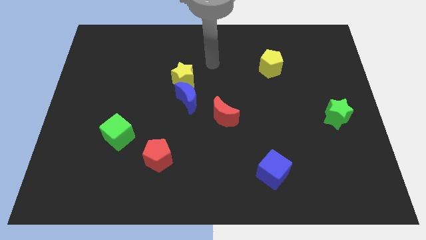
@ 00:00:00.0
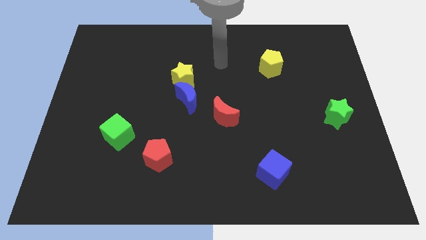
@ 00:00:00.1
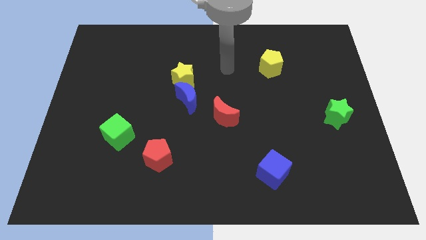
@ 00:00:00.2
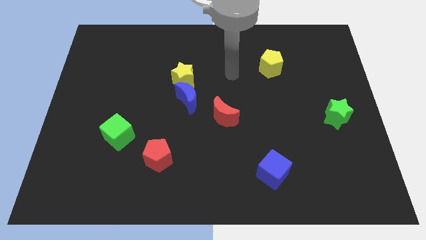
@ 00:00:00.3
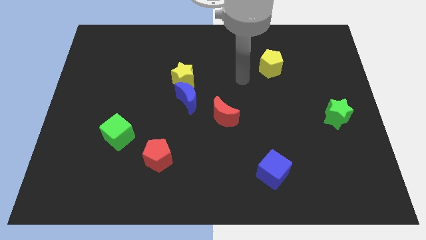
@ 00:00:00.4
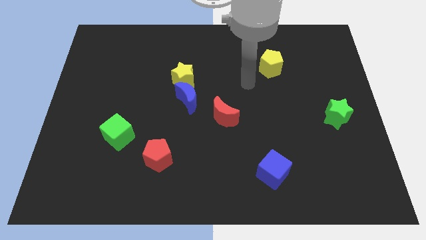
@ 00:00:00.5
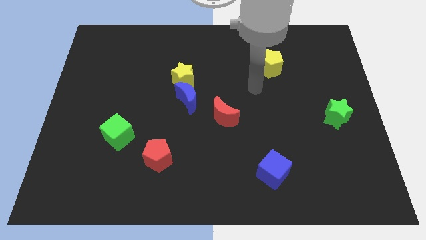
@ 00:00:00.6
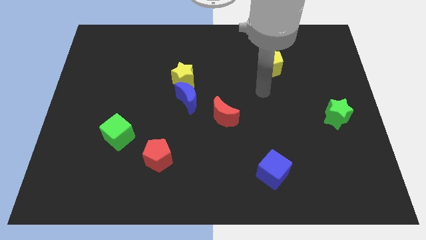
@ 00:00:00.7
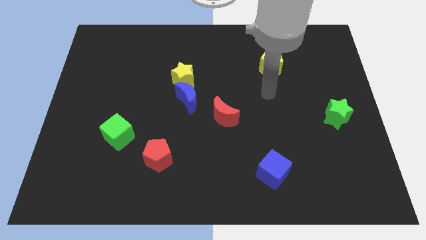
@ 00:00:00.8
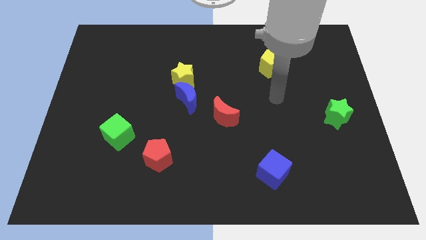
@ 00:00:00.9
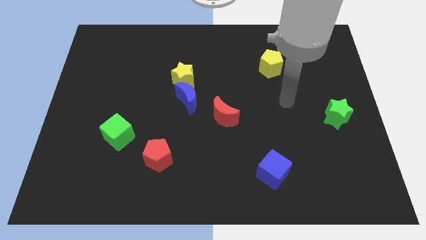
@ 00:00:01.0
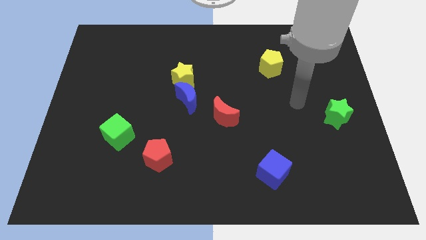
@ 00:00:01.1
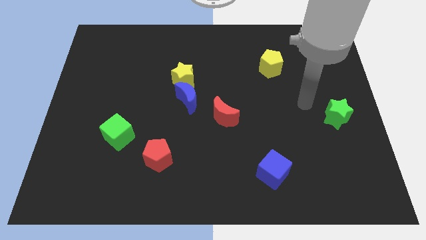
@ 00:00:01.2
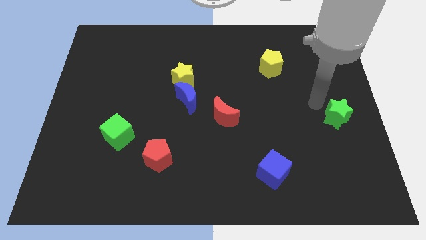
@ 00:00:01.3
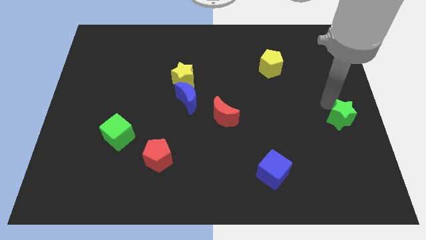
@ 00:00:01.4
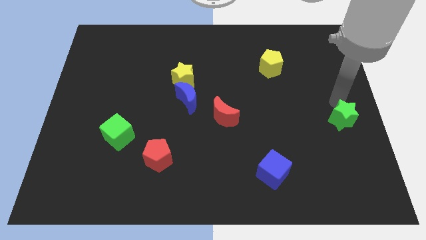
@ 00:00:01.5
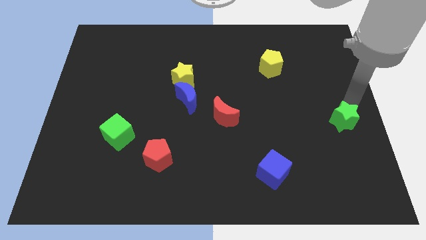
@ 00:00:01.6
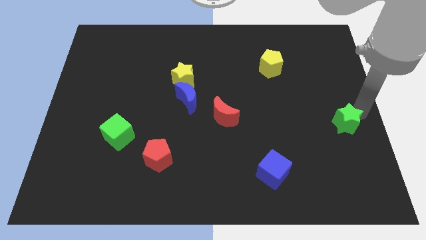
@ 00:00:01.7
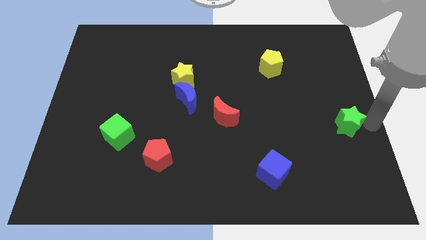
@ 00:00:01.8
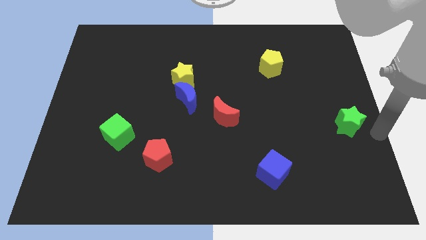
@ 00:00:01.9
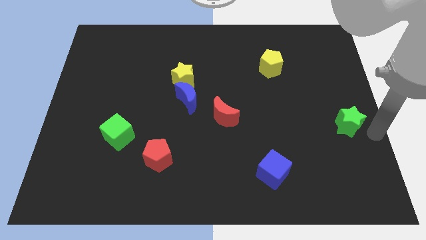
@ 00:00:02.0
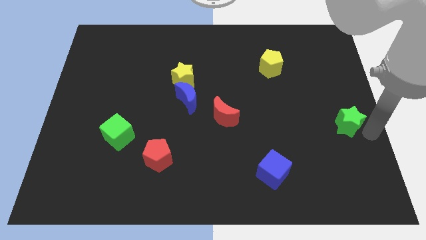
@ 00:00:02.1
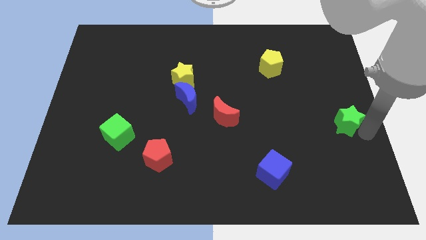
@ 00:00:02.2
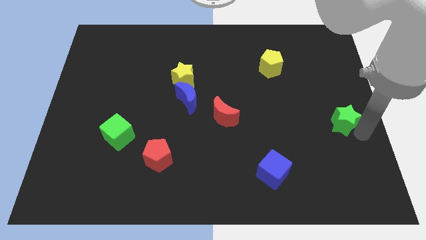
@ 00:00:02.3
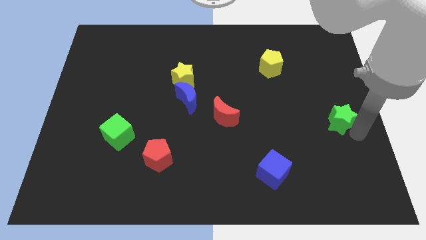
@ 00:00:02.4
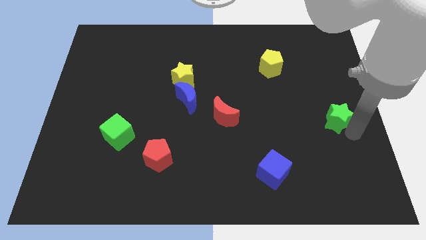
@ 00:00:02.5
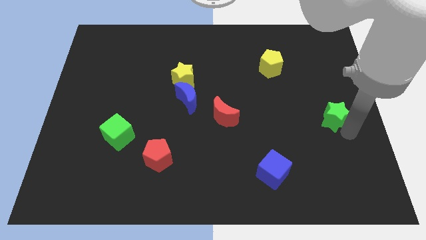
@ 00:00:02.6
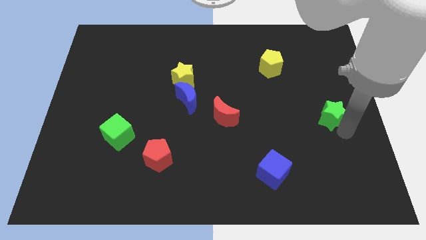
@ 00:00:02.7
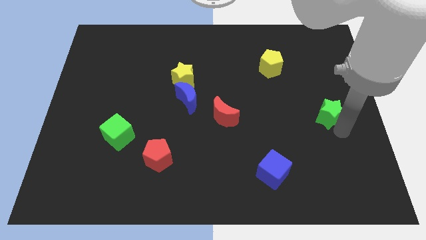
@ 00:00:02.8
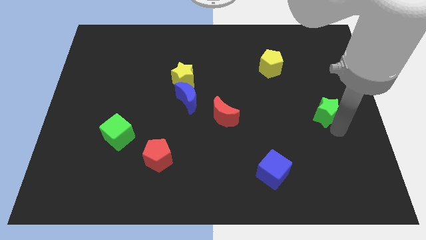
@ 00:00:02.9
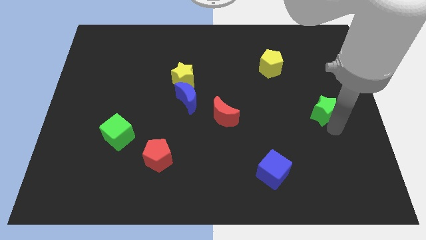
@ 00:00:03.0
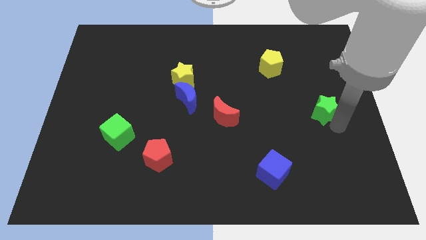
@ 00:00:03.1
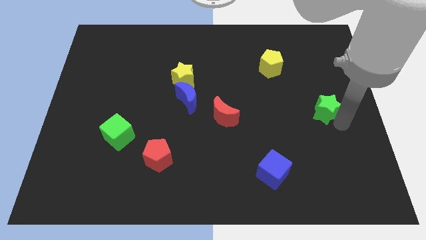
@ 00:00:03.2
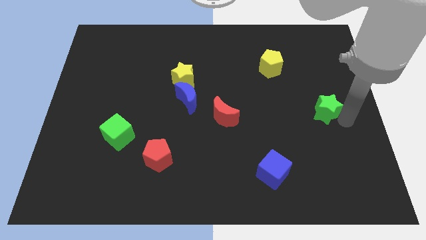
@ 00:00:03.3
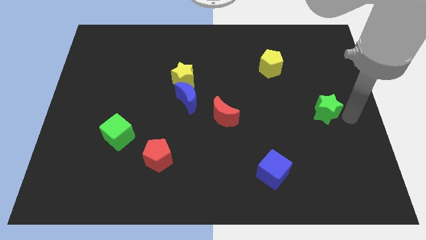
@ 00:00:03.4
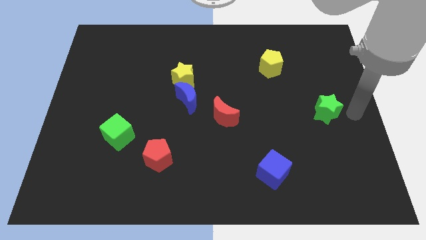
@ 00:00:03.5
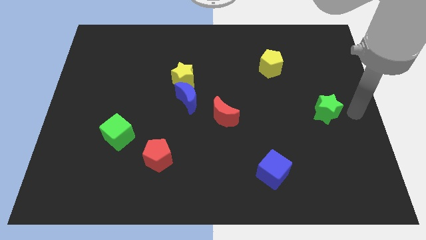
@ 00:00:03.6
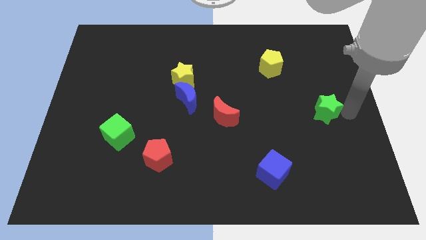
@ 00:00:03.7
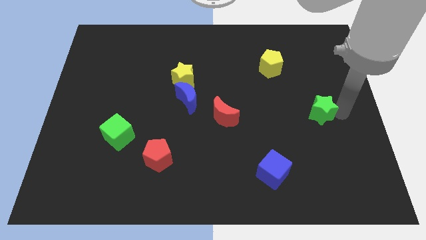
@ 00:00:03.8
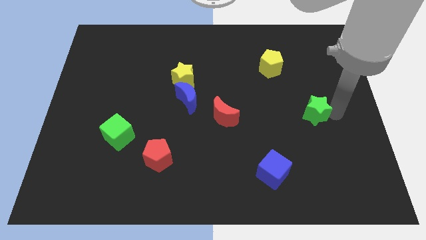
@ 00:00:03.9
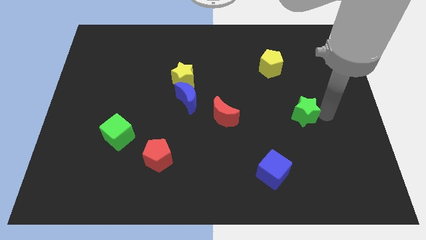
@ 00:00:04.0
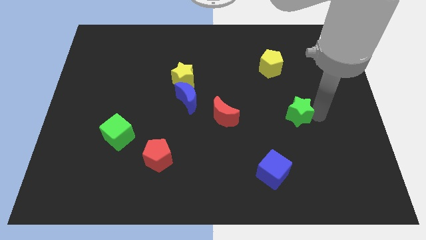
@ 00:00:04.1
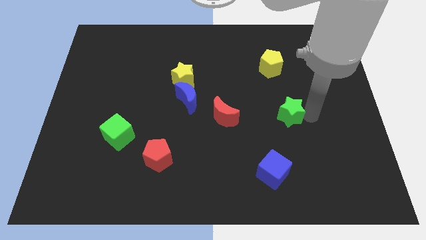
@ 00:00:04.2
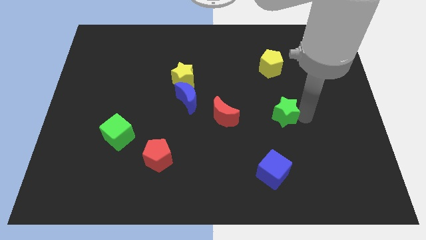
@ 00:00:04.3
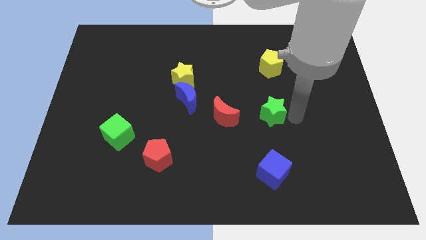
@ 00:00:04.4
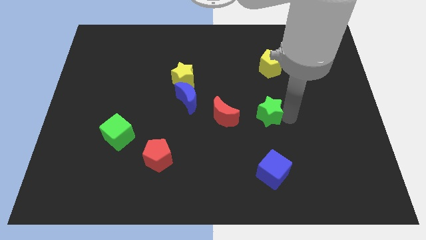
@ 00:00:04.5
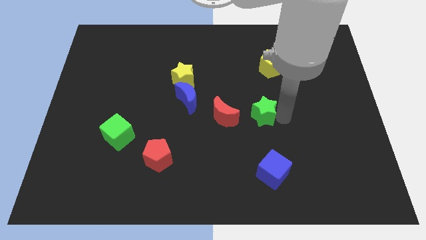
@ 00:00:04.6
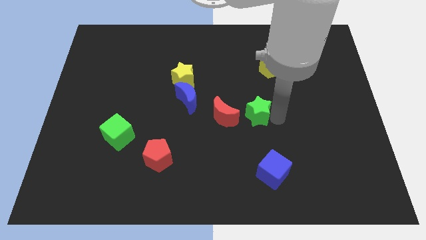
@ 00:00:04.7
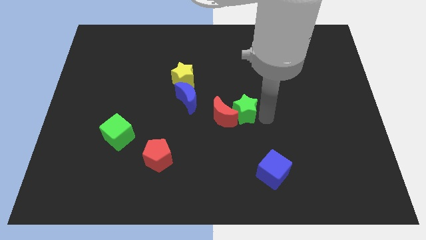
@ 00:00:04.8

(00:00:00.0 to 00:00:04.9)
push the green star left

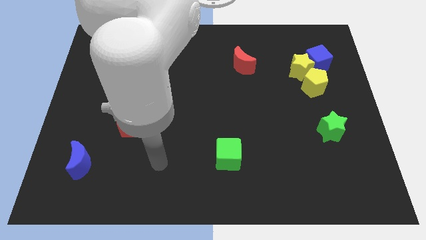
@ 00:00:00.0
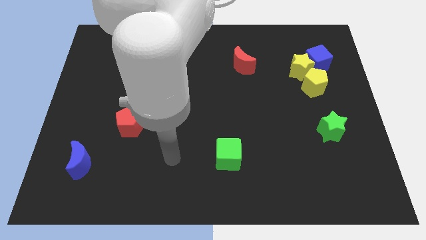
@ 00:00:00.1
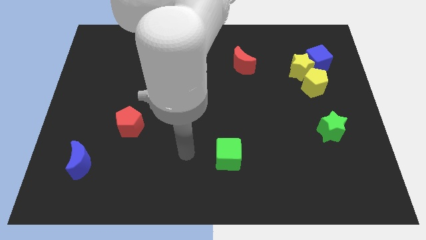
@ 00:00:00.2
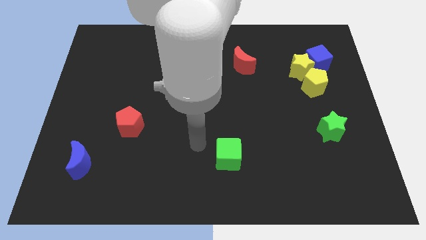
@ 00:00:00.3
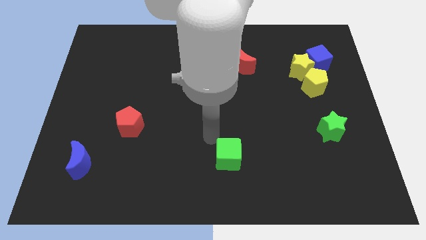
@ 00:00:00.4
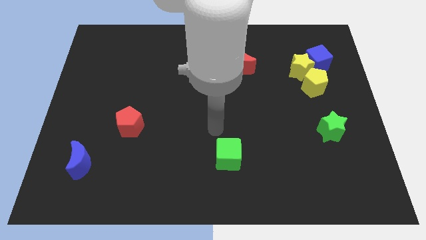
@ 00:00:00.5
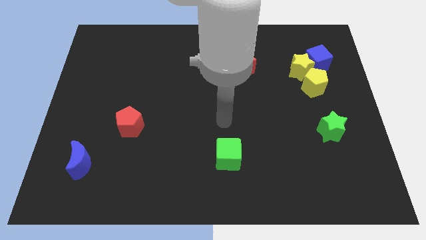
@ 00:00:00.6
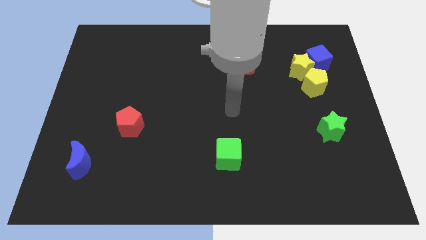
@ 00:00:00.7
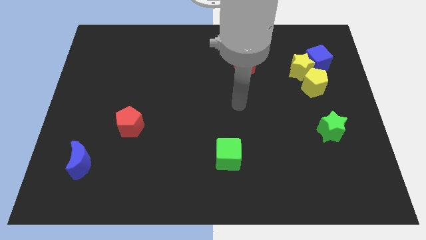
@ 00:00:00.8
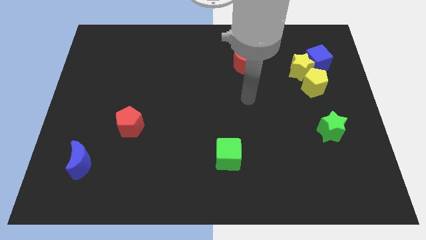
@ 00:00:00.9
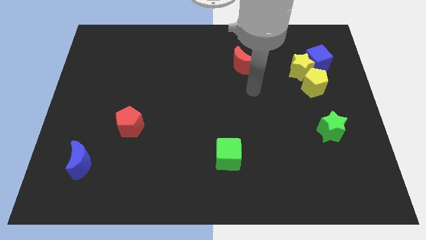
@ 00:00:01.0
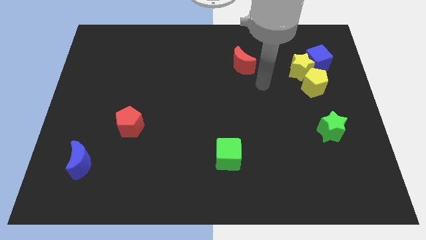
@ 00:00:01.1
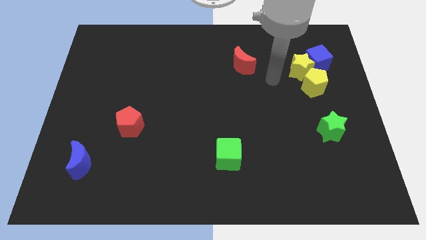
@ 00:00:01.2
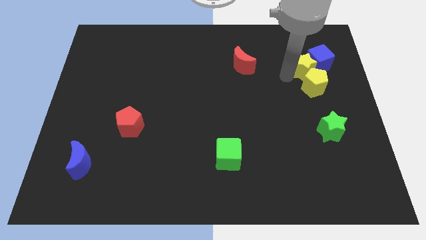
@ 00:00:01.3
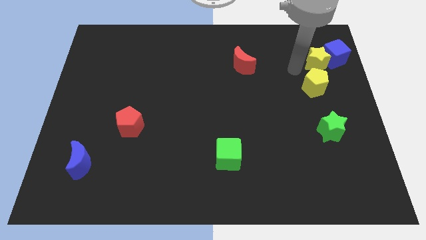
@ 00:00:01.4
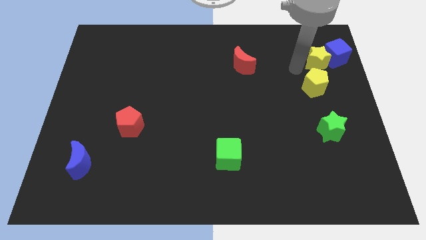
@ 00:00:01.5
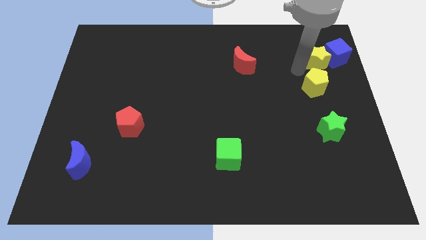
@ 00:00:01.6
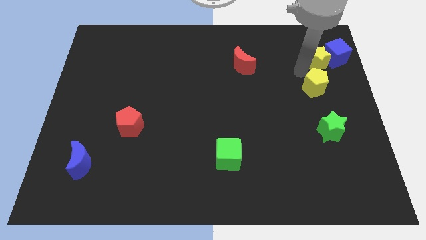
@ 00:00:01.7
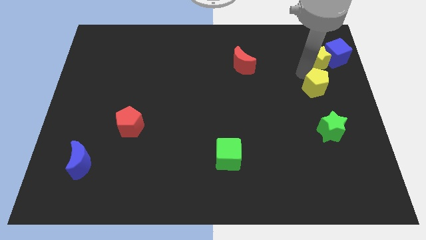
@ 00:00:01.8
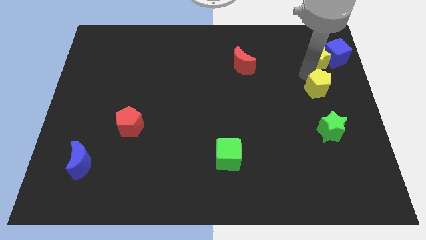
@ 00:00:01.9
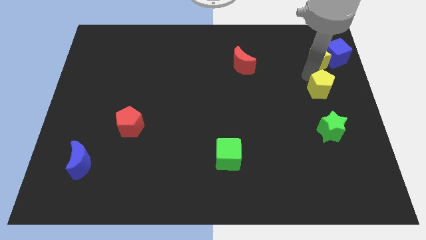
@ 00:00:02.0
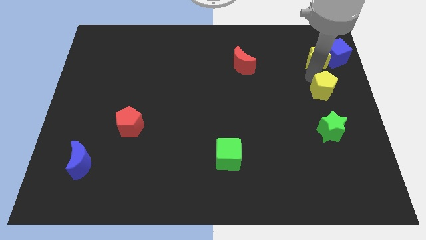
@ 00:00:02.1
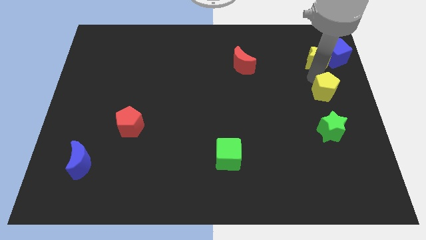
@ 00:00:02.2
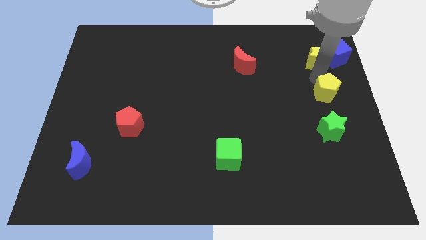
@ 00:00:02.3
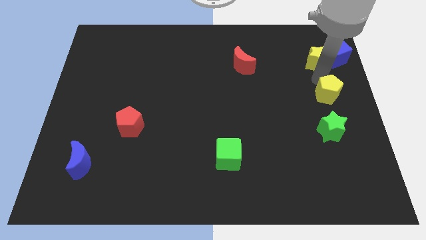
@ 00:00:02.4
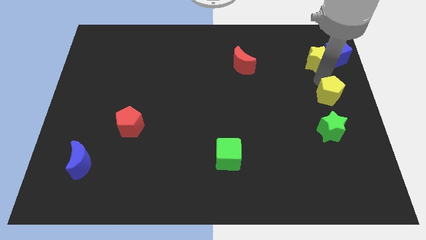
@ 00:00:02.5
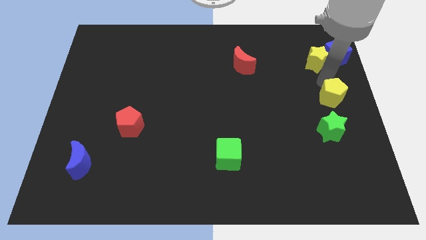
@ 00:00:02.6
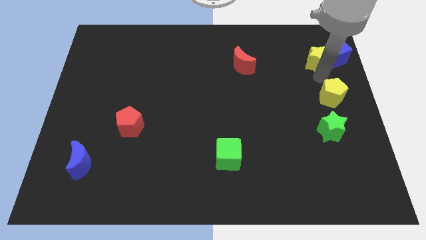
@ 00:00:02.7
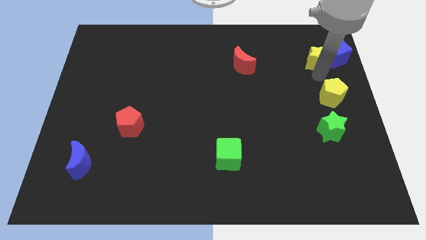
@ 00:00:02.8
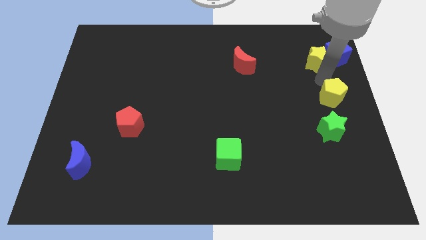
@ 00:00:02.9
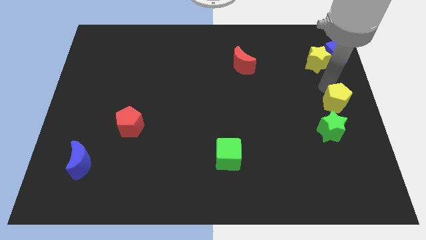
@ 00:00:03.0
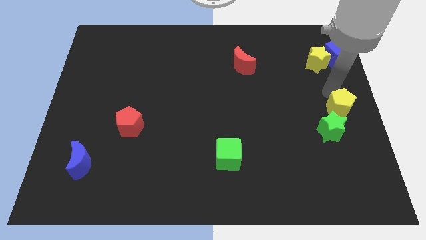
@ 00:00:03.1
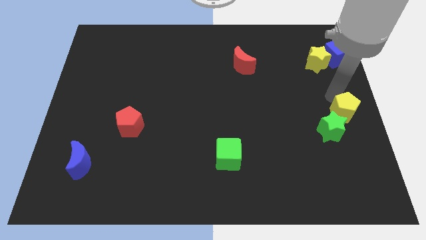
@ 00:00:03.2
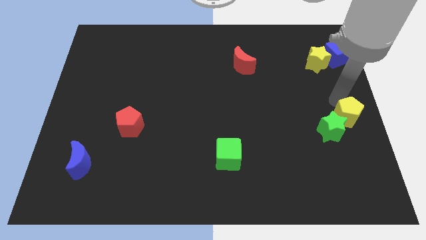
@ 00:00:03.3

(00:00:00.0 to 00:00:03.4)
slide the yellow pentagon slightly downwards

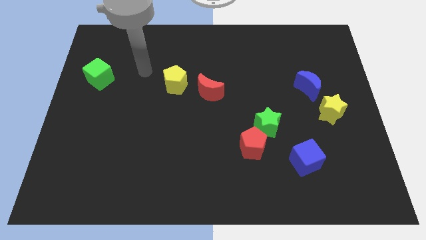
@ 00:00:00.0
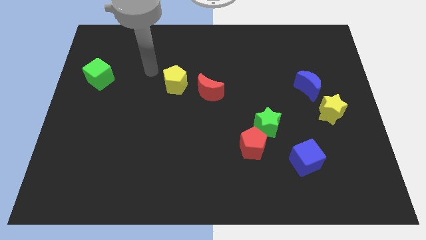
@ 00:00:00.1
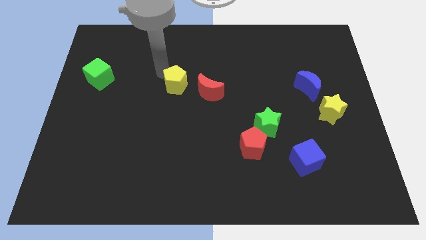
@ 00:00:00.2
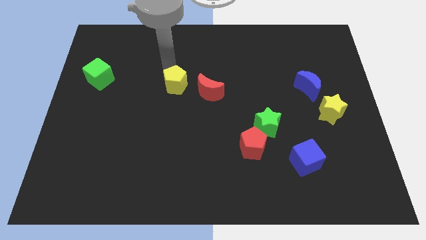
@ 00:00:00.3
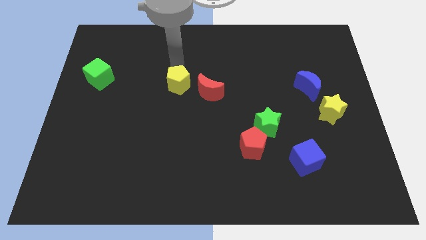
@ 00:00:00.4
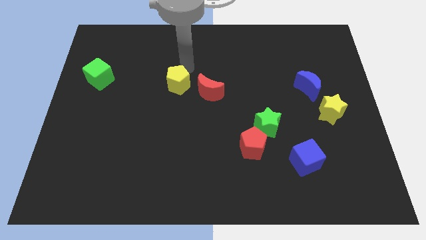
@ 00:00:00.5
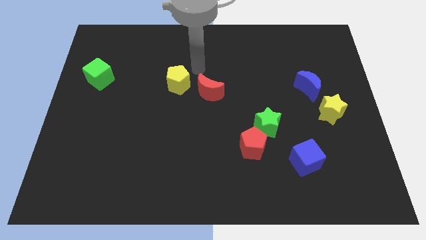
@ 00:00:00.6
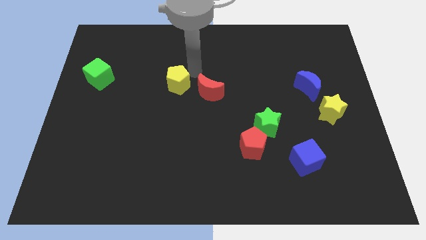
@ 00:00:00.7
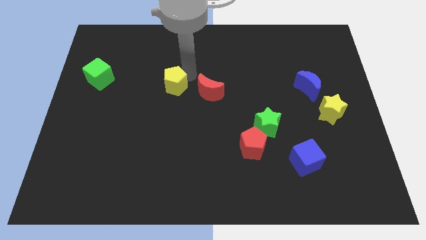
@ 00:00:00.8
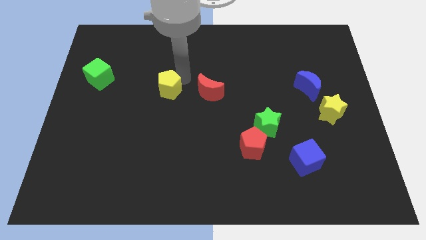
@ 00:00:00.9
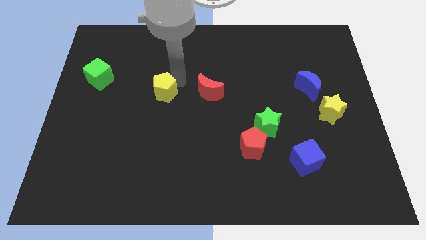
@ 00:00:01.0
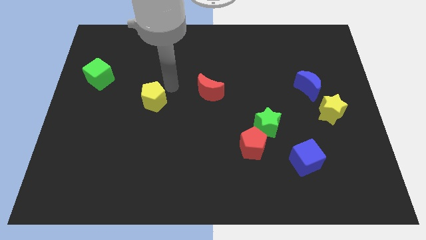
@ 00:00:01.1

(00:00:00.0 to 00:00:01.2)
push the yellow pentagon downwards and then left slightly
